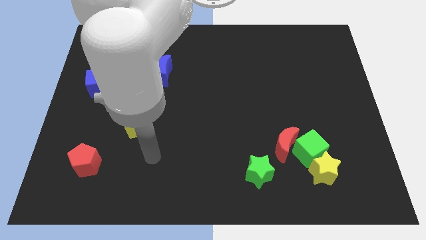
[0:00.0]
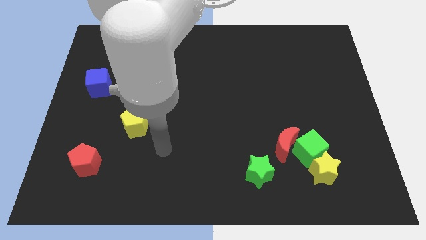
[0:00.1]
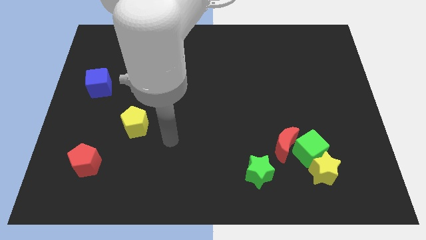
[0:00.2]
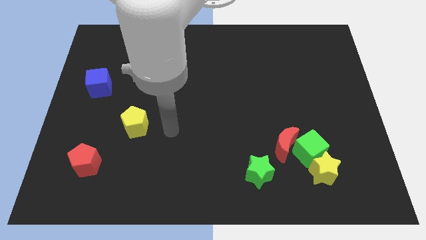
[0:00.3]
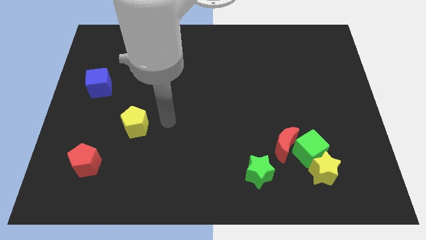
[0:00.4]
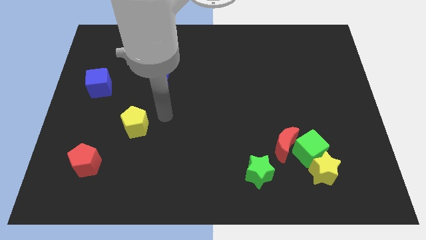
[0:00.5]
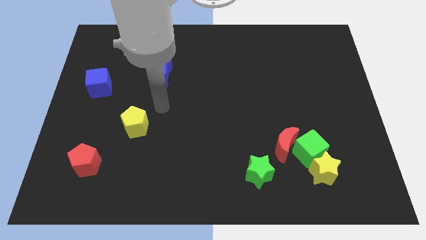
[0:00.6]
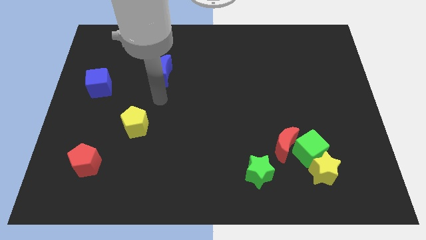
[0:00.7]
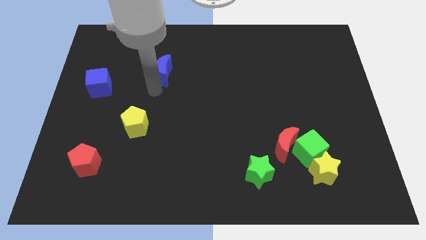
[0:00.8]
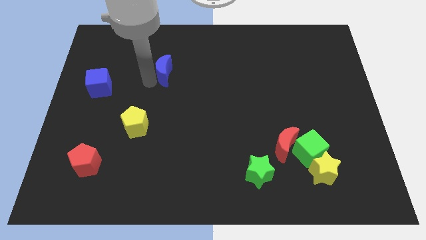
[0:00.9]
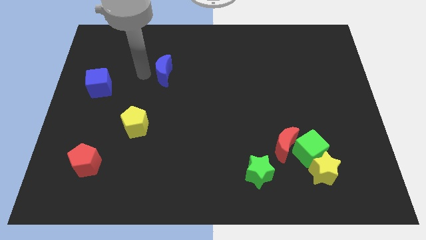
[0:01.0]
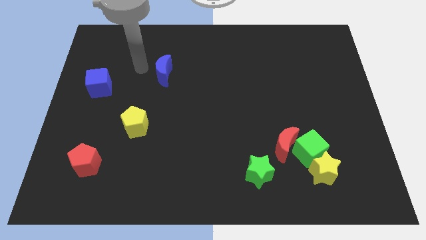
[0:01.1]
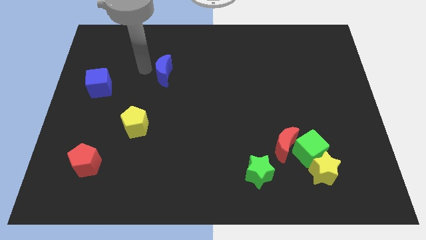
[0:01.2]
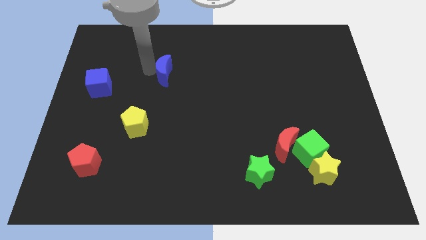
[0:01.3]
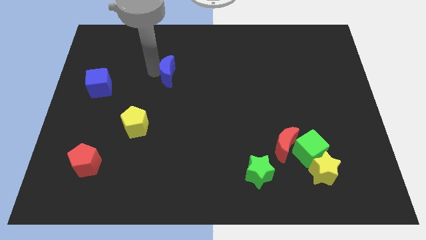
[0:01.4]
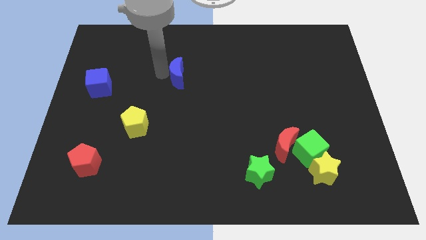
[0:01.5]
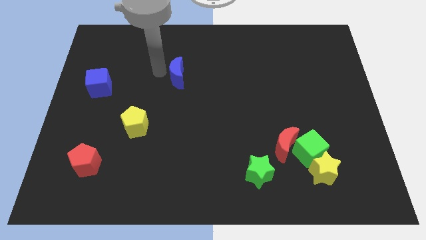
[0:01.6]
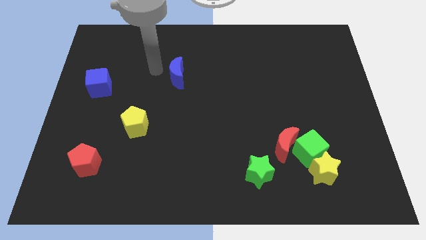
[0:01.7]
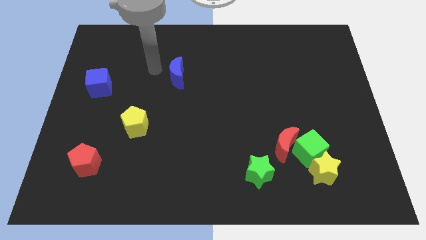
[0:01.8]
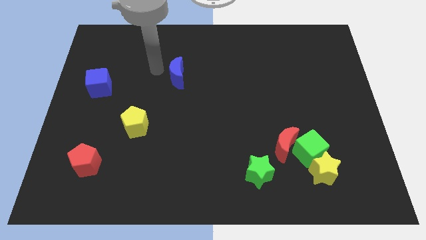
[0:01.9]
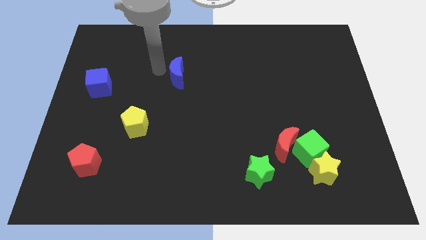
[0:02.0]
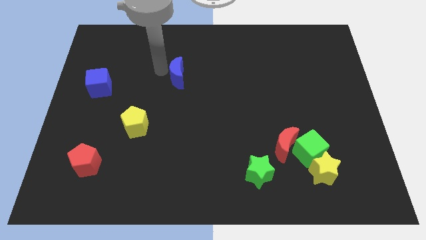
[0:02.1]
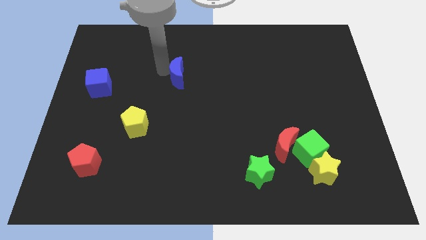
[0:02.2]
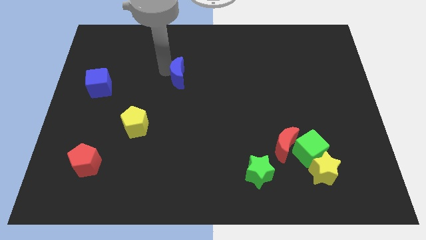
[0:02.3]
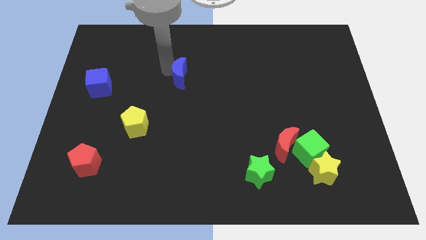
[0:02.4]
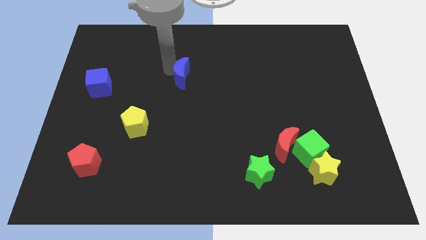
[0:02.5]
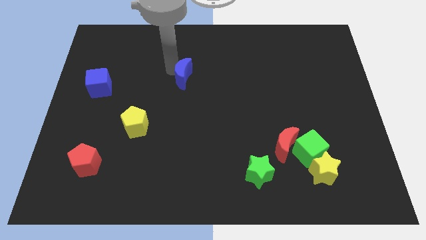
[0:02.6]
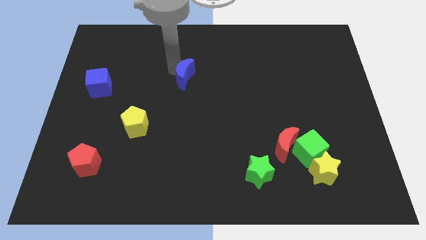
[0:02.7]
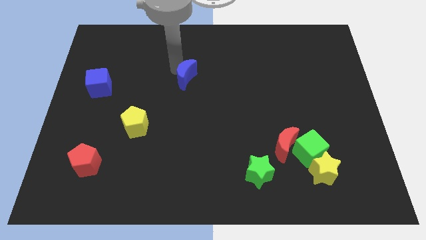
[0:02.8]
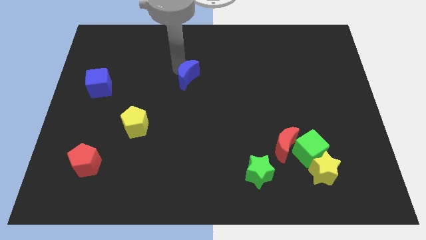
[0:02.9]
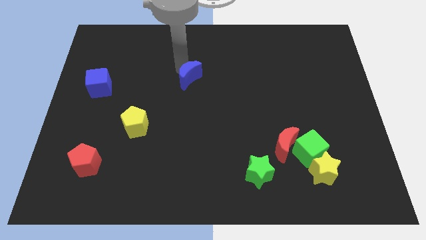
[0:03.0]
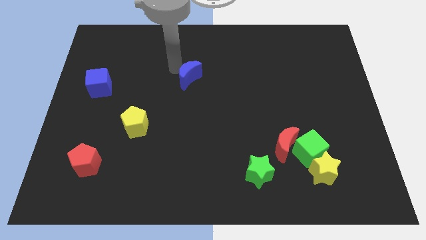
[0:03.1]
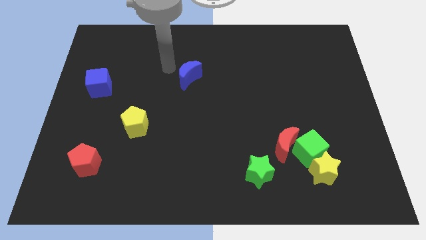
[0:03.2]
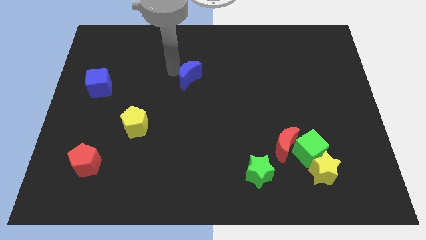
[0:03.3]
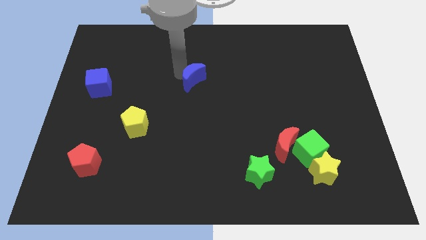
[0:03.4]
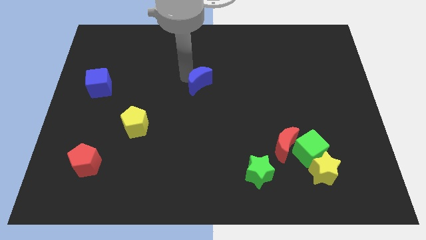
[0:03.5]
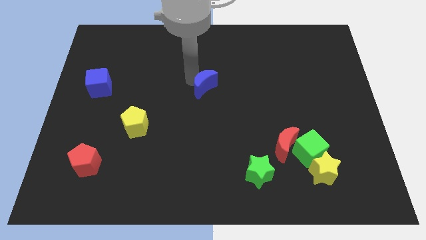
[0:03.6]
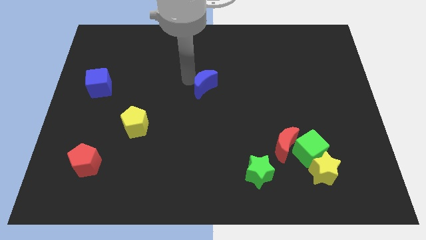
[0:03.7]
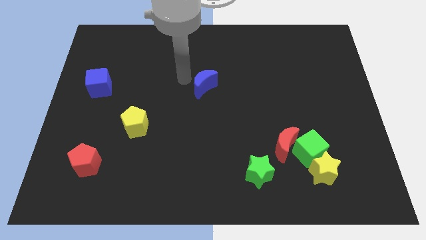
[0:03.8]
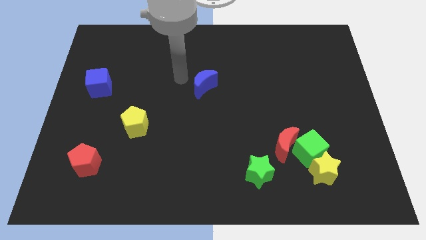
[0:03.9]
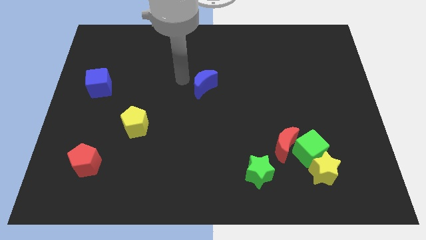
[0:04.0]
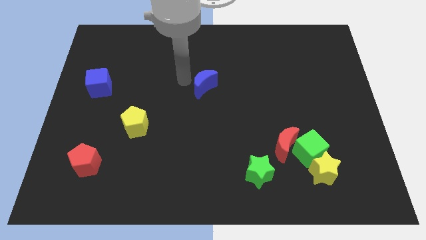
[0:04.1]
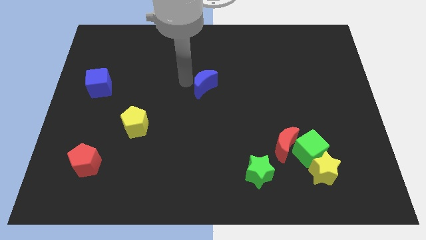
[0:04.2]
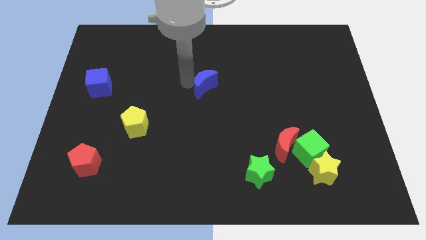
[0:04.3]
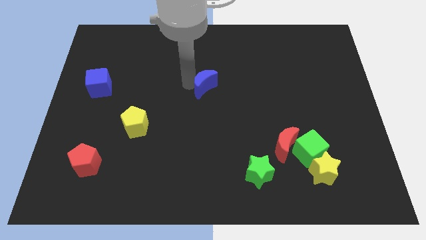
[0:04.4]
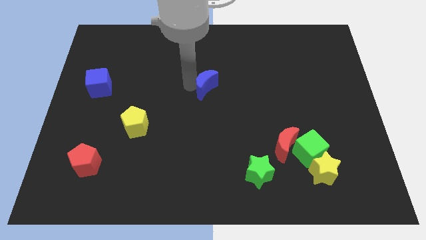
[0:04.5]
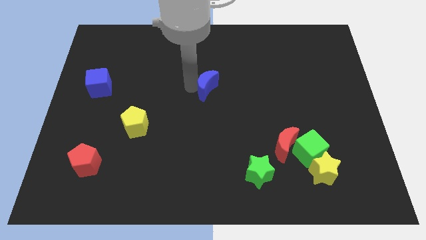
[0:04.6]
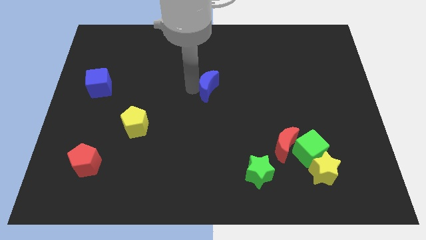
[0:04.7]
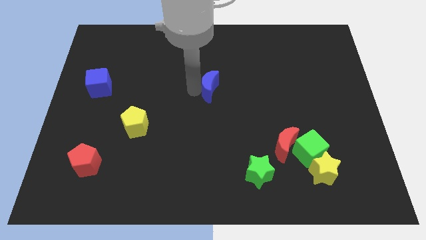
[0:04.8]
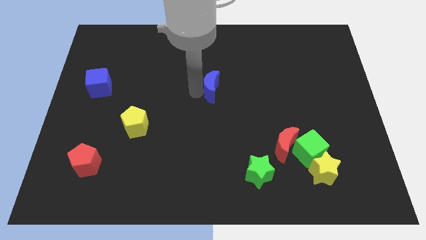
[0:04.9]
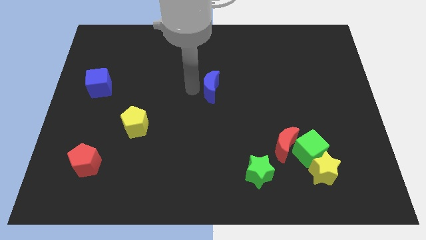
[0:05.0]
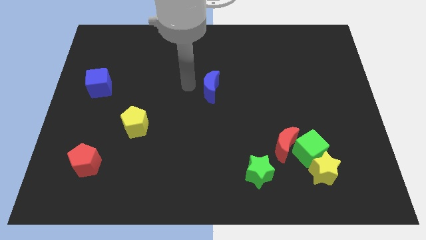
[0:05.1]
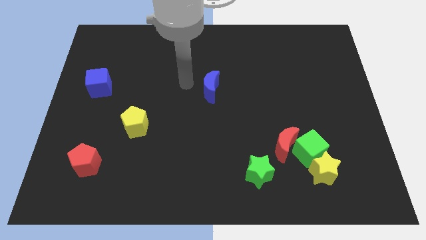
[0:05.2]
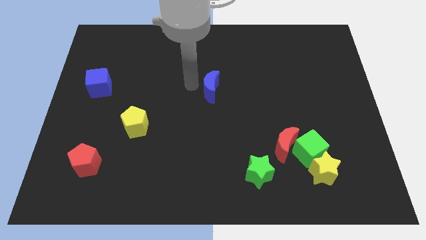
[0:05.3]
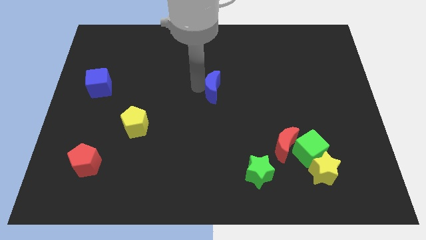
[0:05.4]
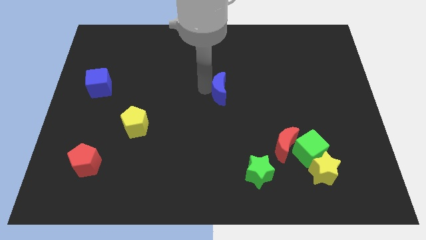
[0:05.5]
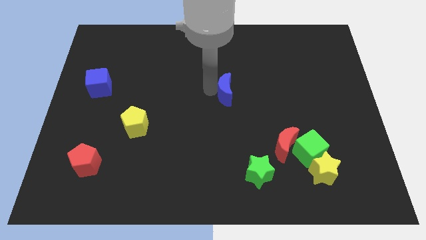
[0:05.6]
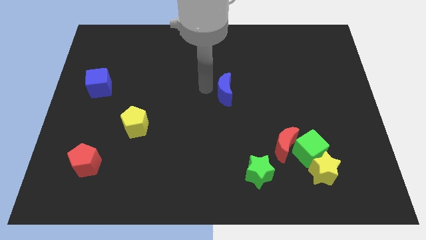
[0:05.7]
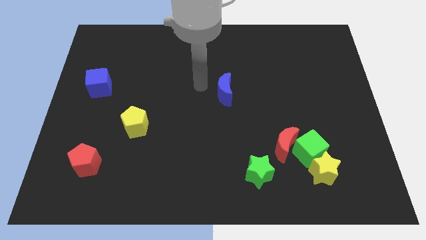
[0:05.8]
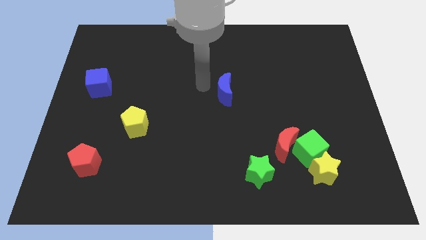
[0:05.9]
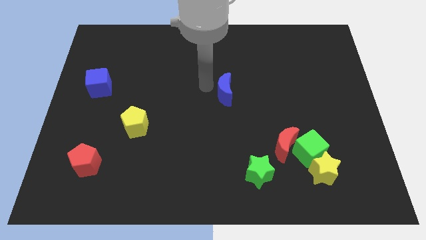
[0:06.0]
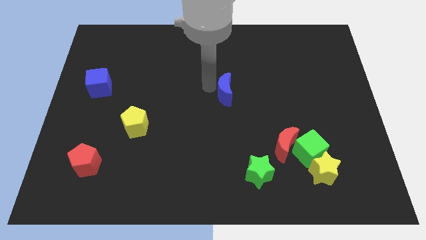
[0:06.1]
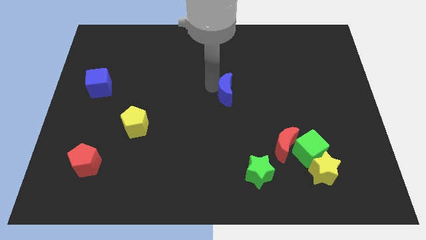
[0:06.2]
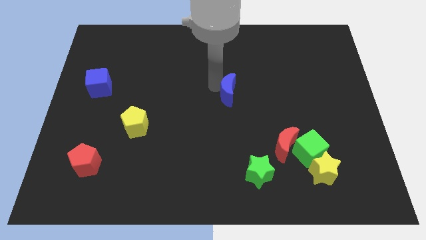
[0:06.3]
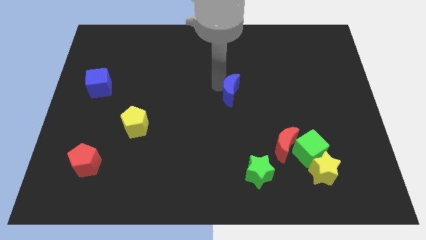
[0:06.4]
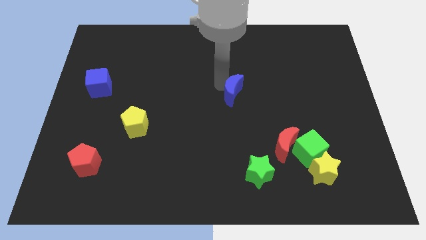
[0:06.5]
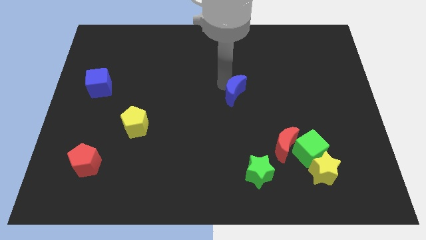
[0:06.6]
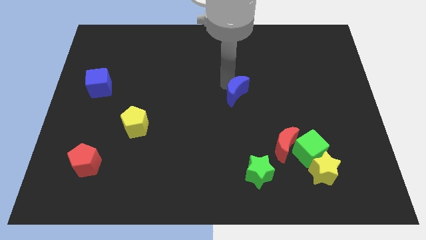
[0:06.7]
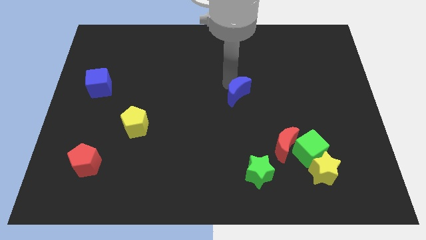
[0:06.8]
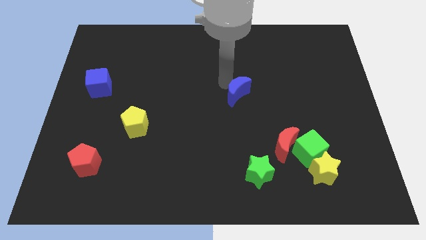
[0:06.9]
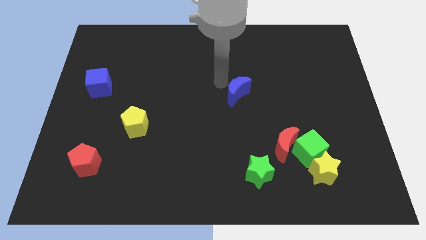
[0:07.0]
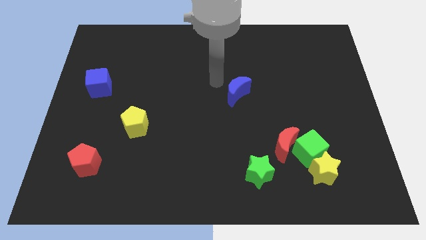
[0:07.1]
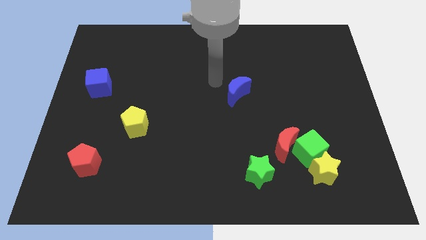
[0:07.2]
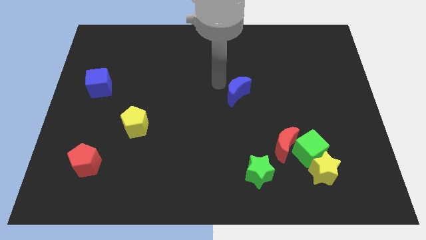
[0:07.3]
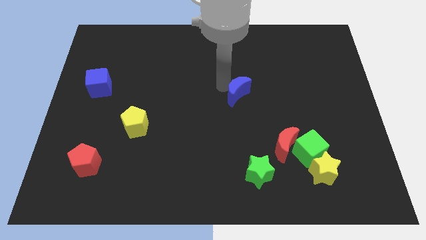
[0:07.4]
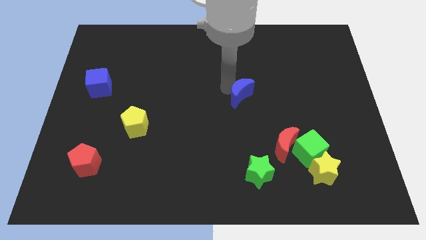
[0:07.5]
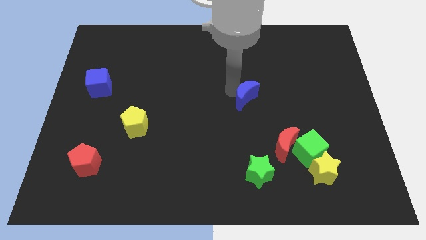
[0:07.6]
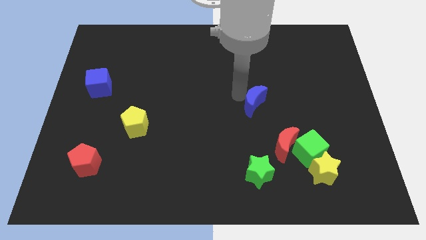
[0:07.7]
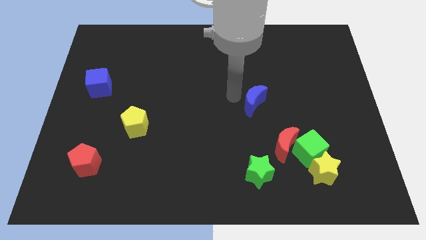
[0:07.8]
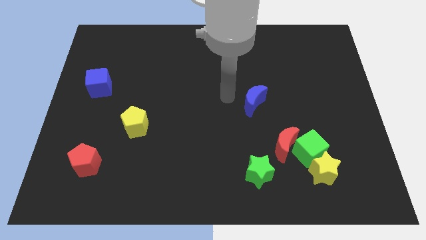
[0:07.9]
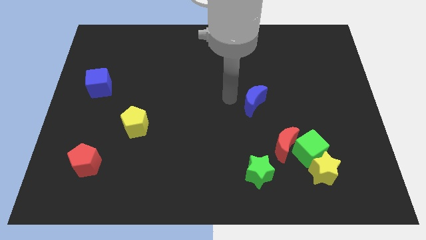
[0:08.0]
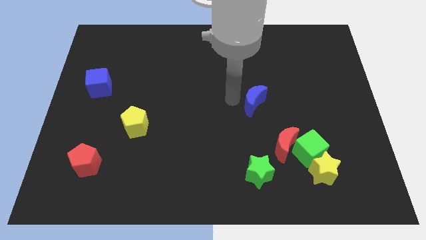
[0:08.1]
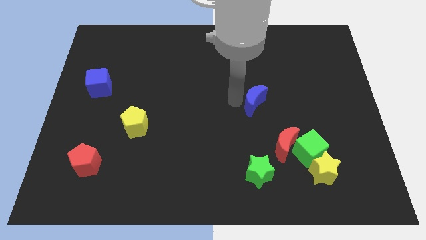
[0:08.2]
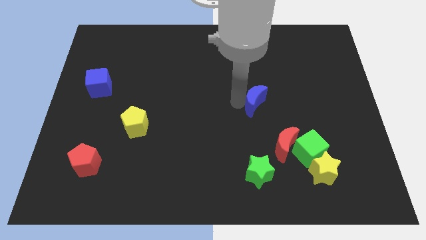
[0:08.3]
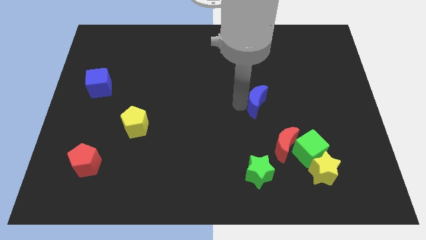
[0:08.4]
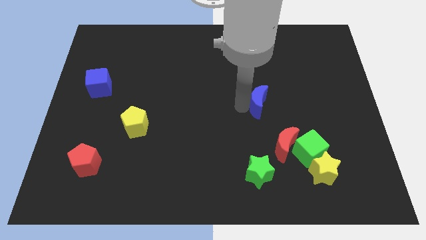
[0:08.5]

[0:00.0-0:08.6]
put the blue moon to the top side of the red moon
